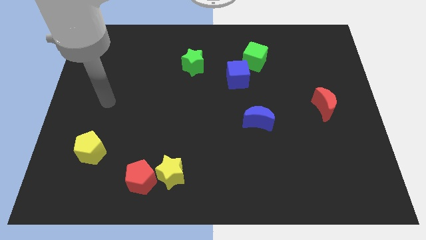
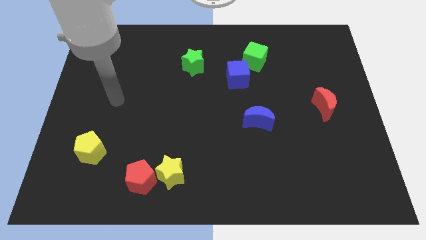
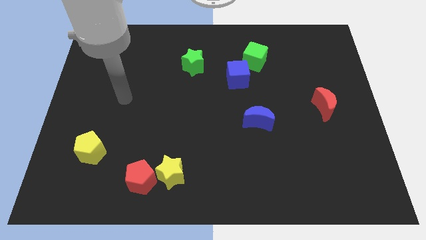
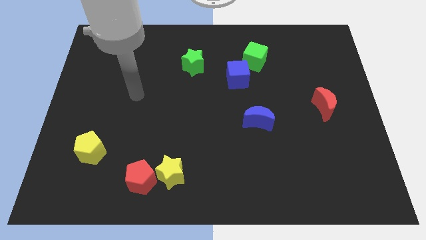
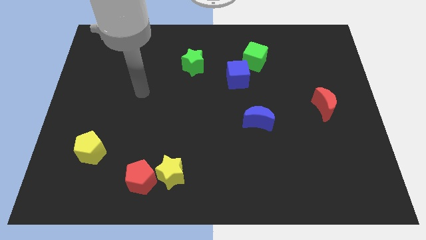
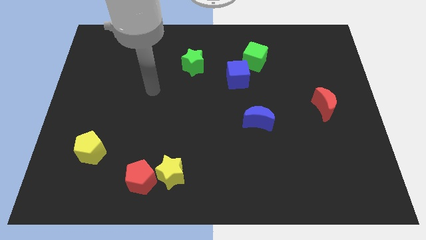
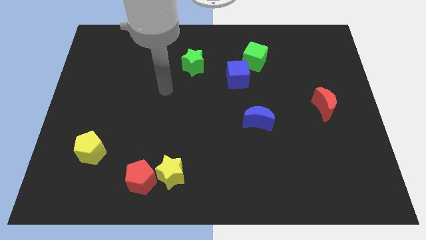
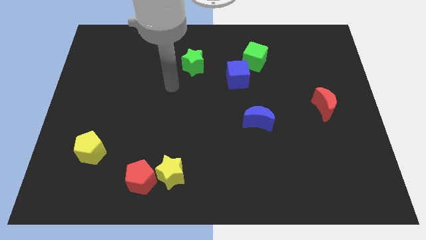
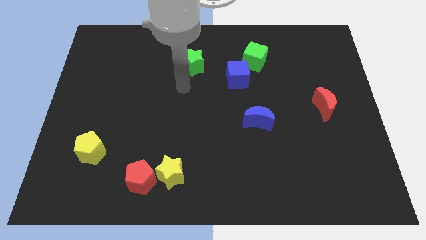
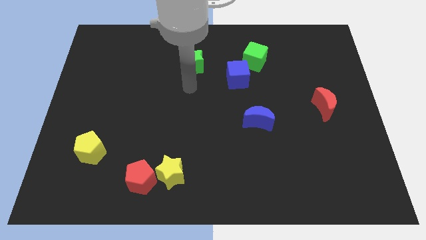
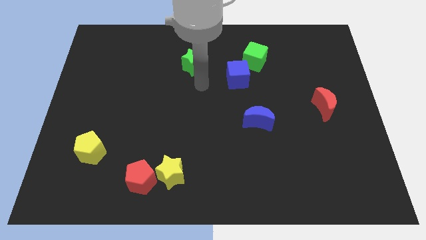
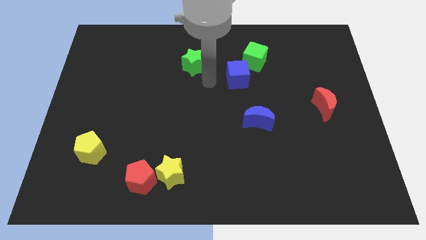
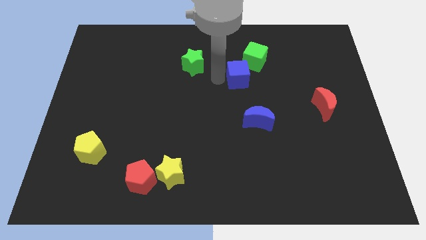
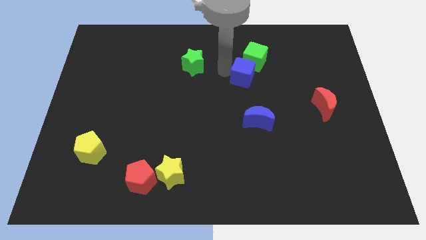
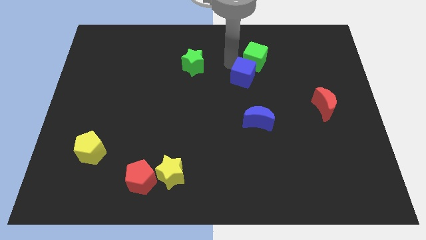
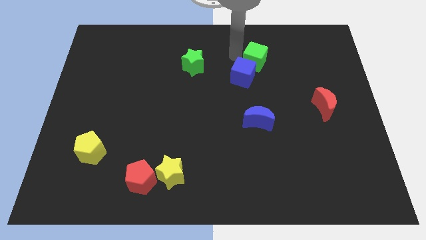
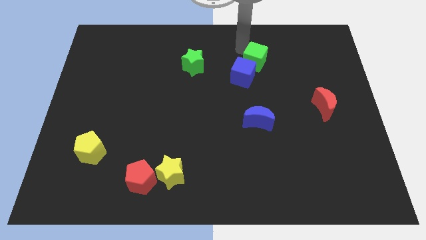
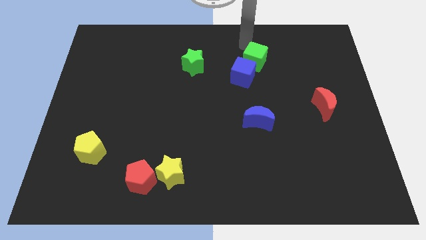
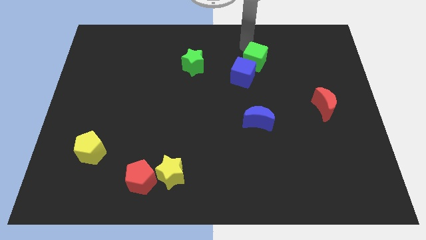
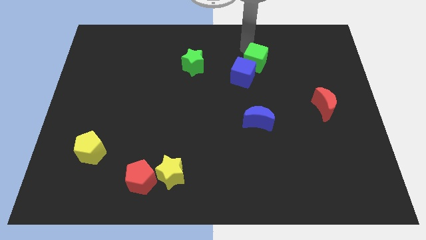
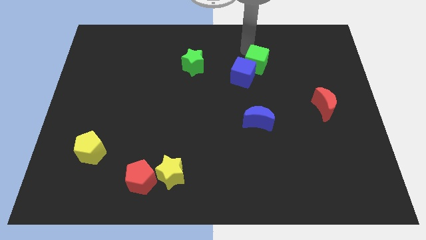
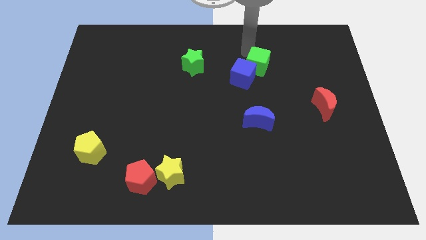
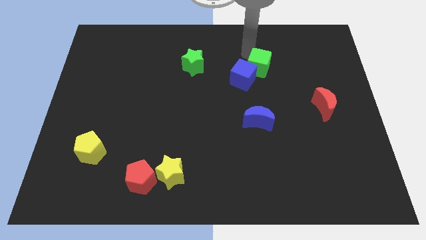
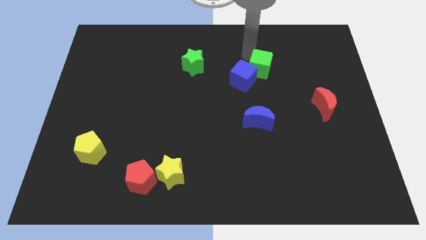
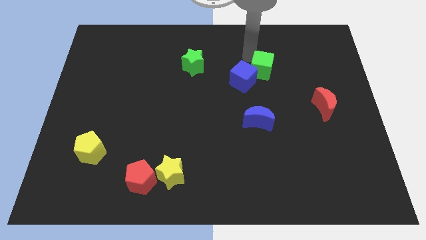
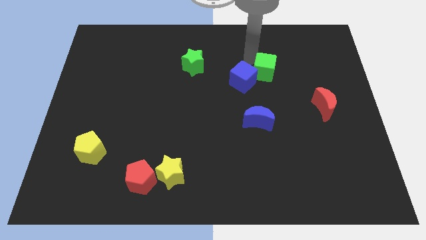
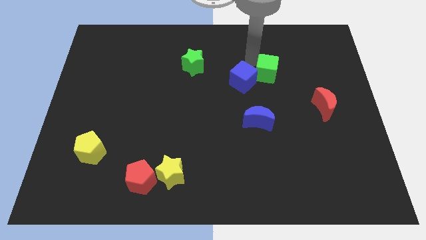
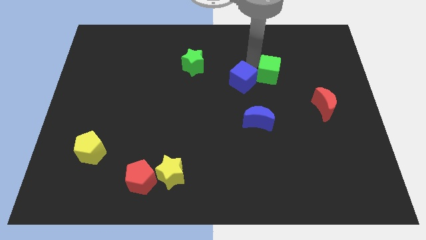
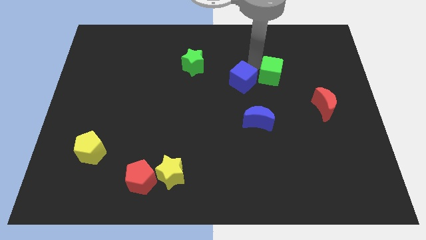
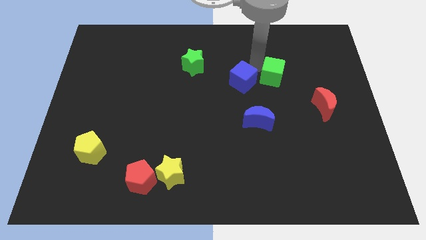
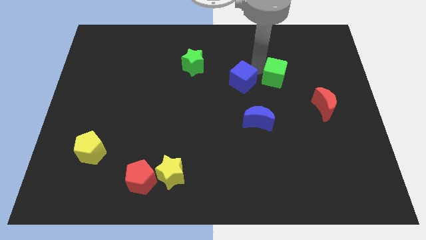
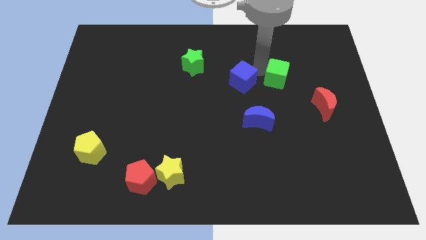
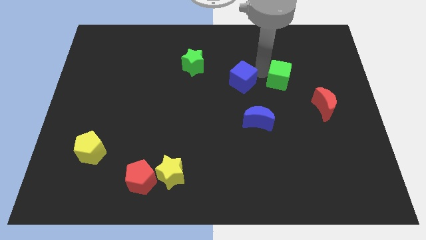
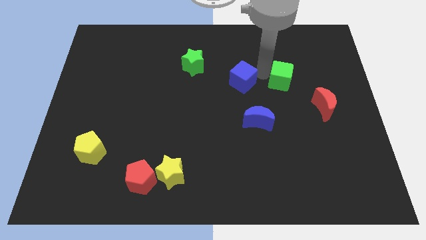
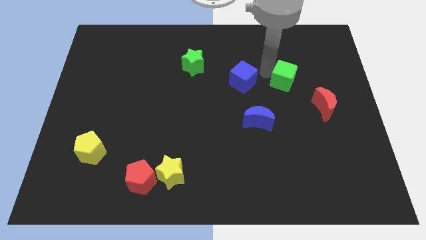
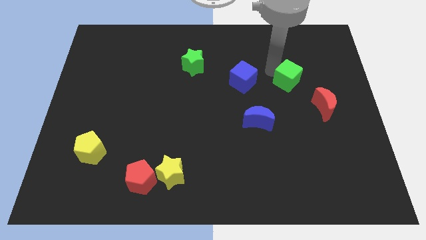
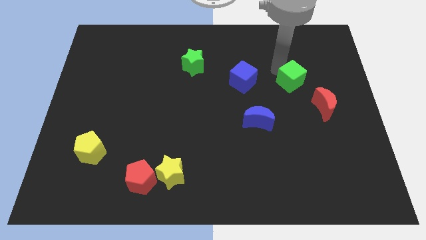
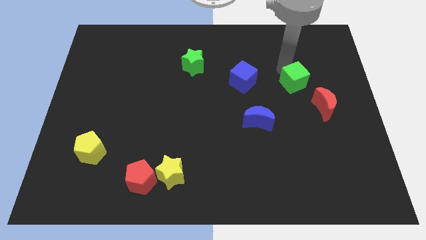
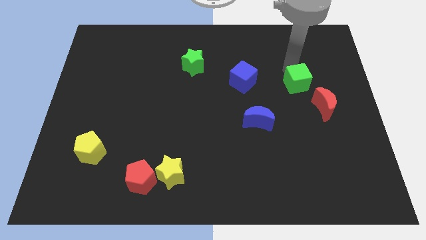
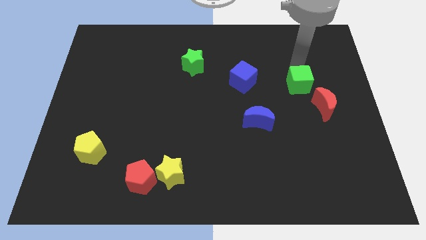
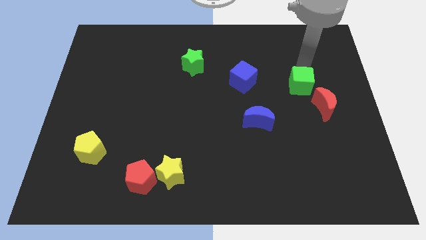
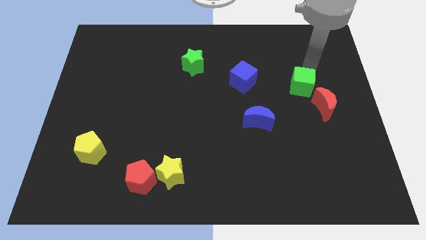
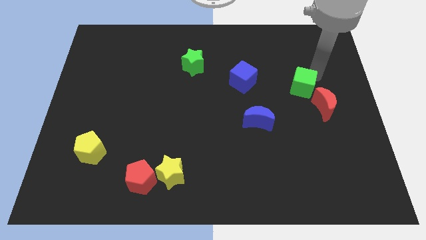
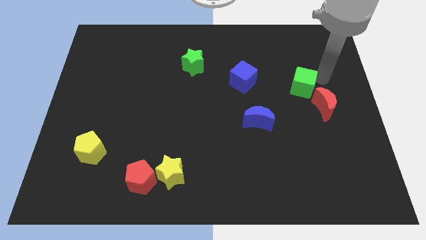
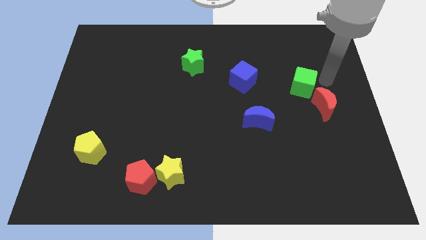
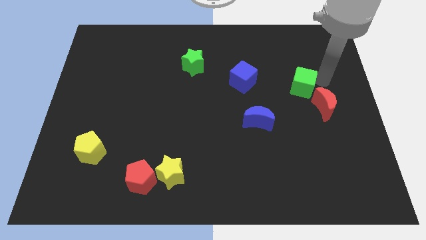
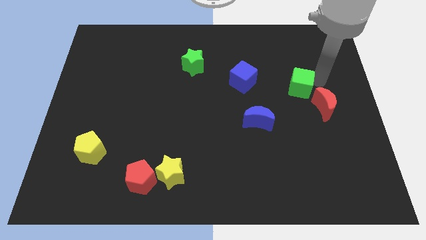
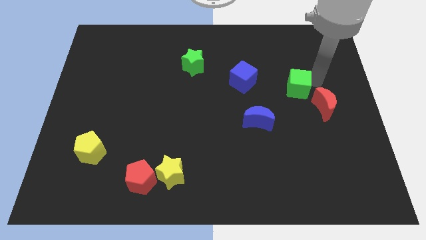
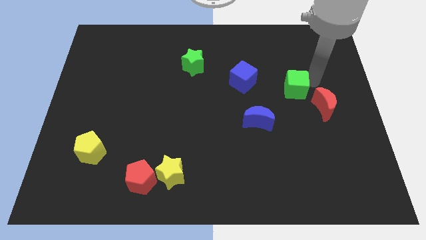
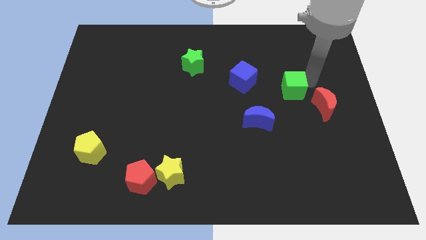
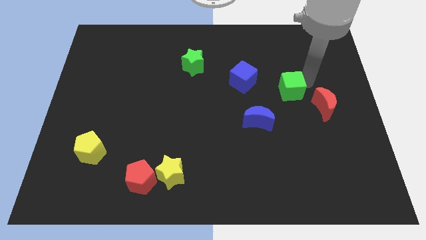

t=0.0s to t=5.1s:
move the green cube to the top right of the blue moon

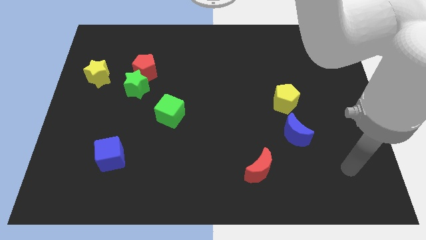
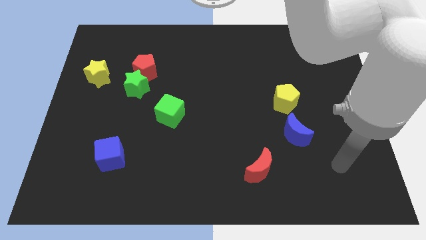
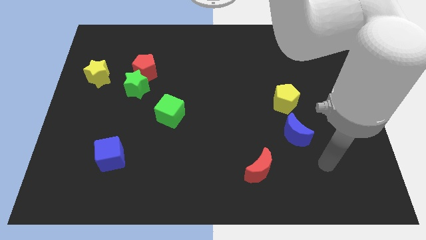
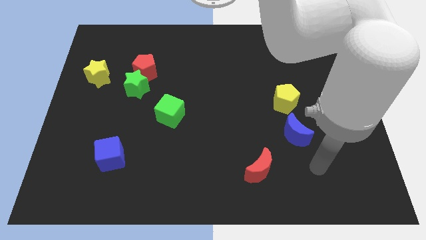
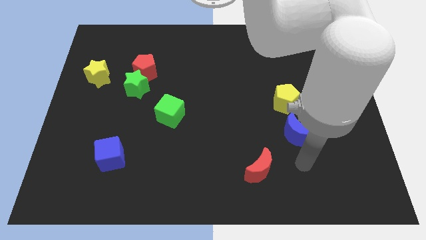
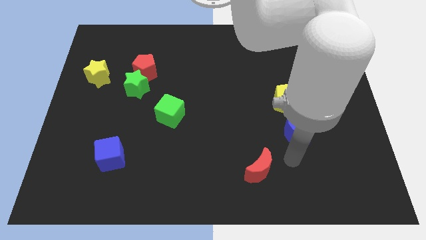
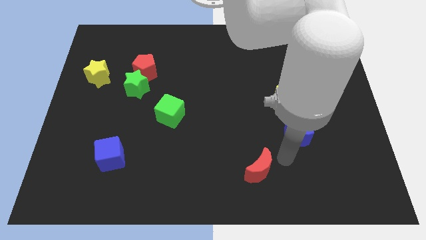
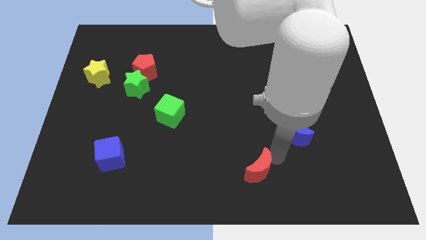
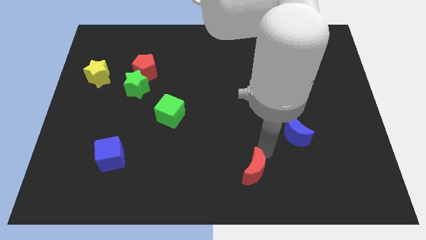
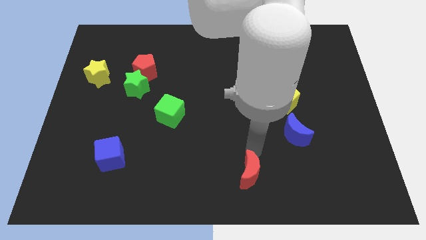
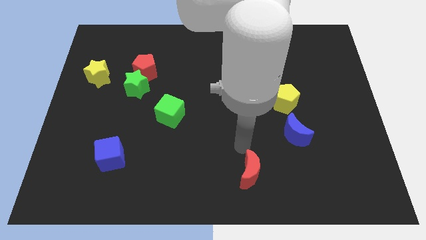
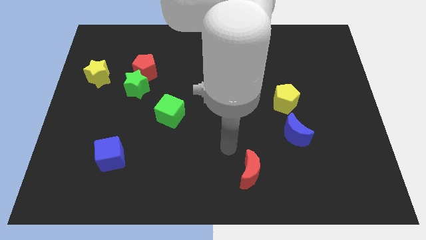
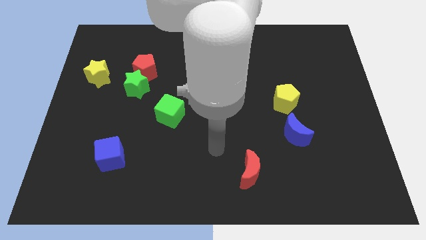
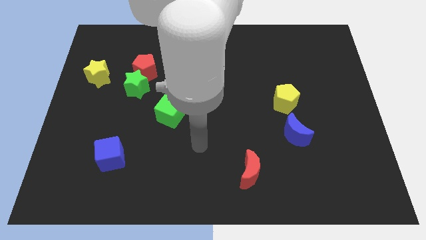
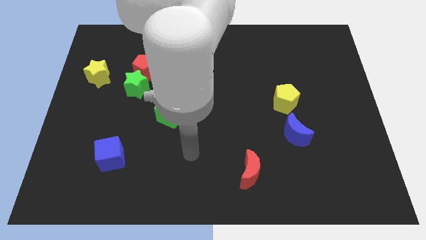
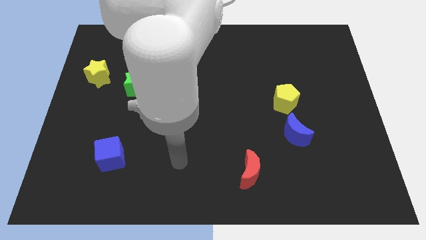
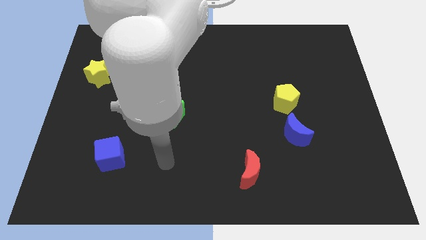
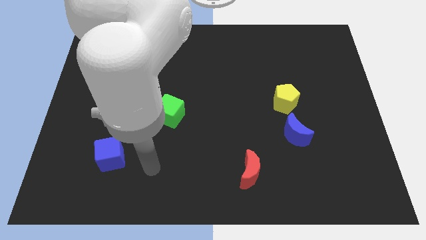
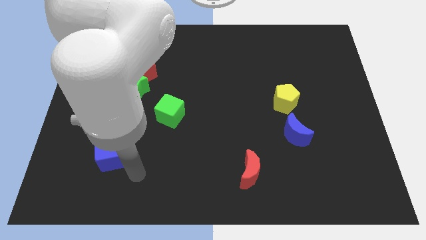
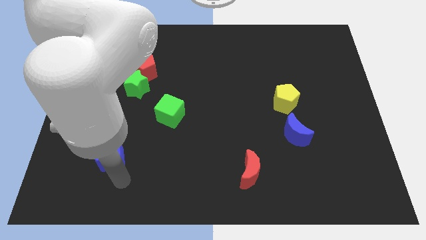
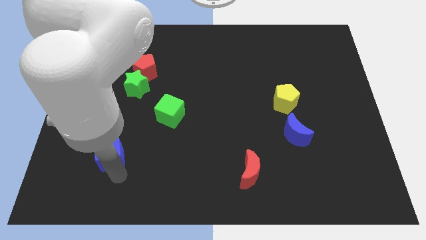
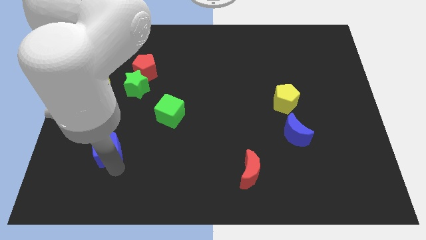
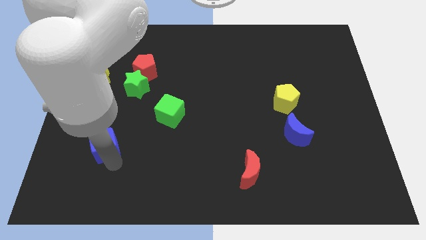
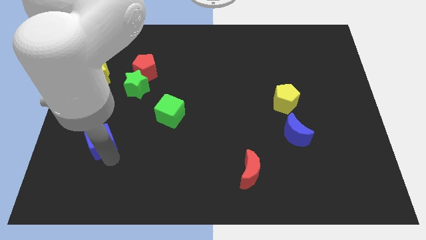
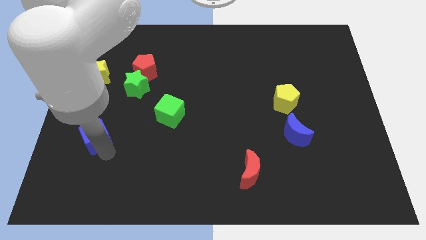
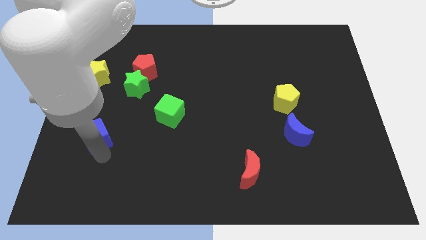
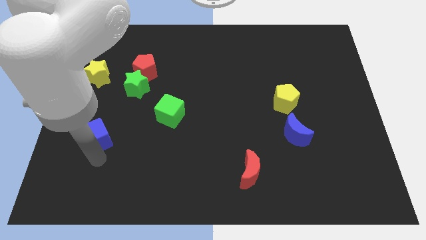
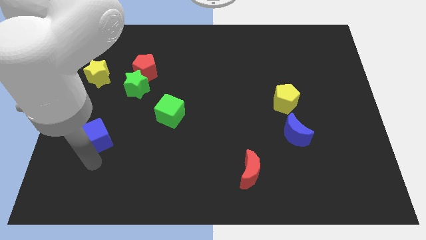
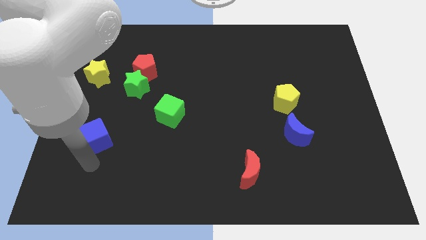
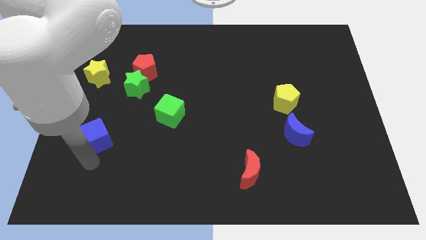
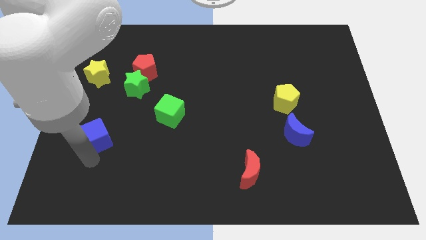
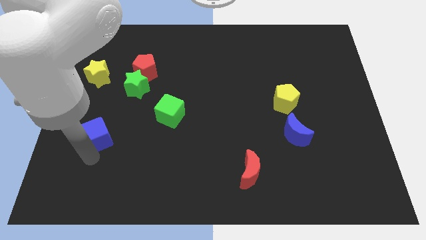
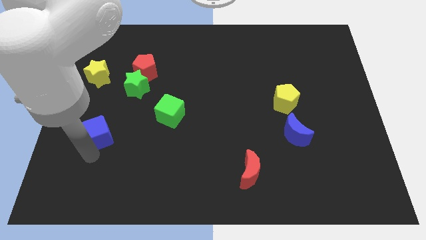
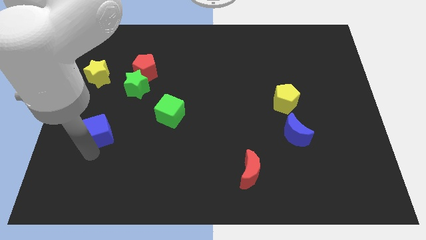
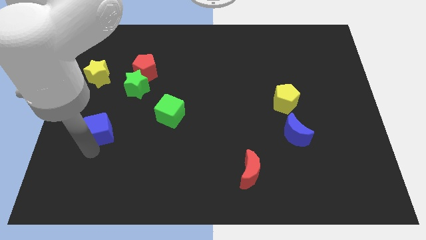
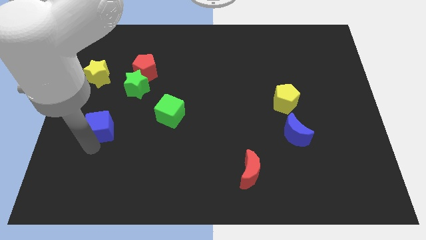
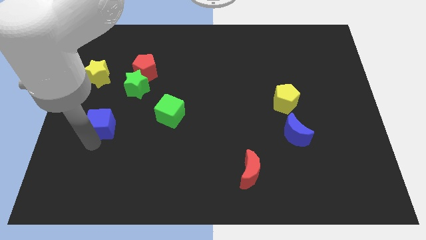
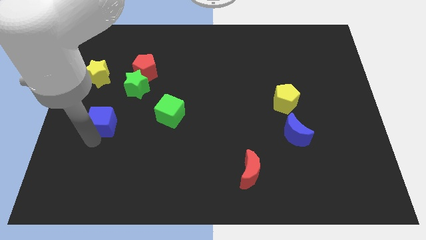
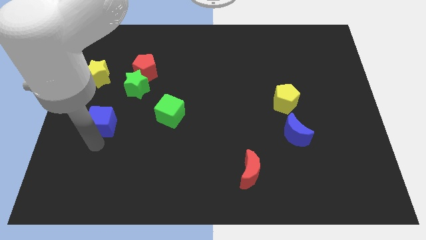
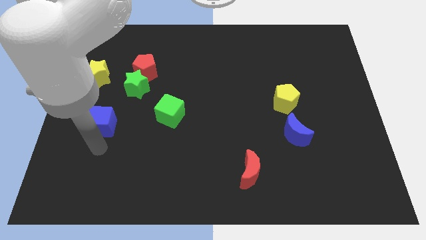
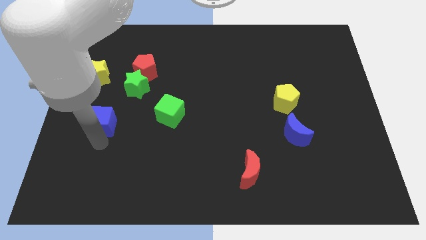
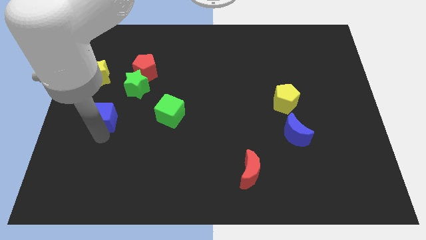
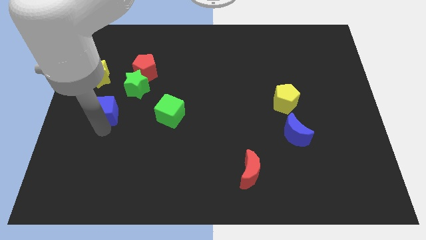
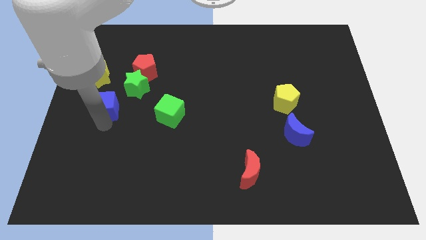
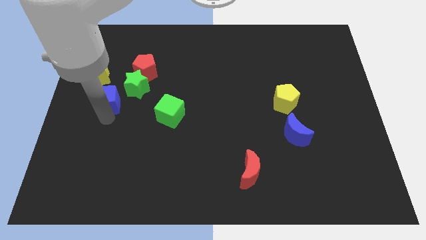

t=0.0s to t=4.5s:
put the blue cube to the left side of the green star
